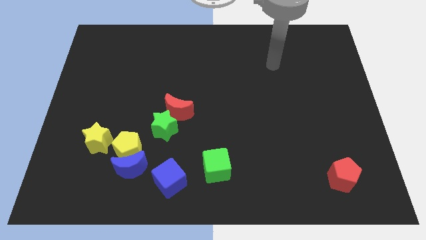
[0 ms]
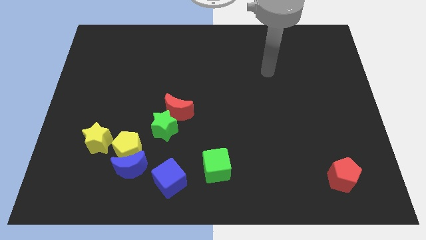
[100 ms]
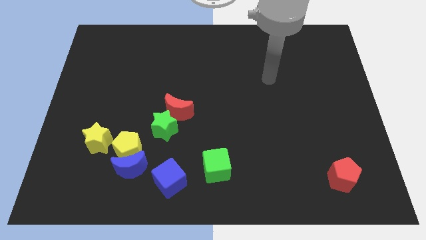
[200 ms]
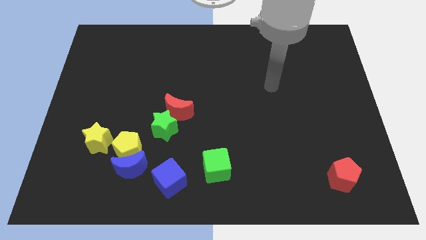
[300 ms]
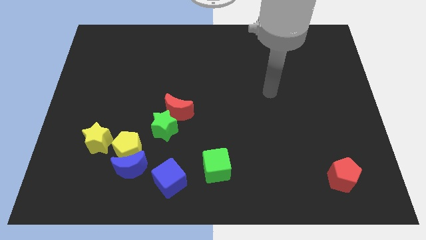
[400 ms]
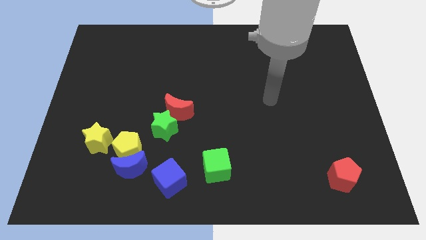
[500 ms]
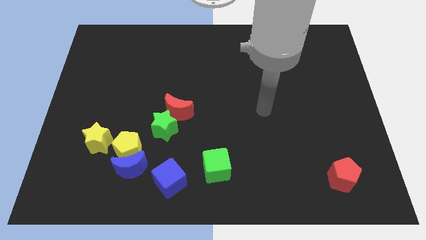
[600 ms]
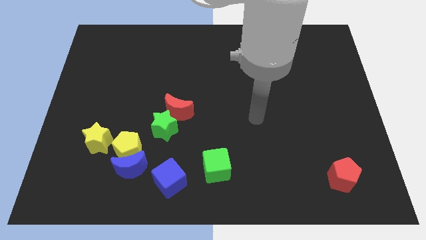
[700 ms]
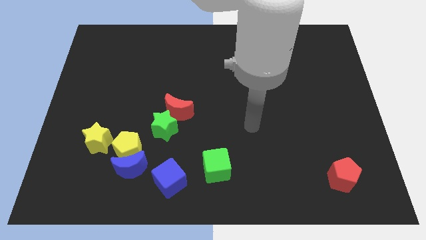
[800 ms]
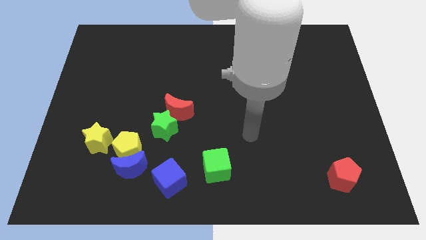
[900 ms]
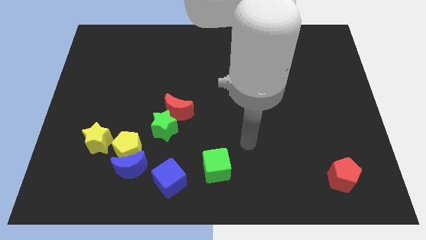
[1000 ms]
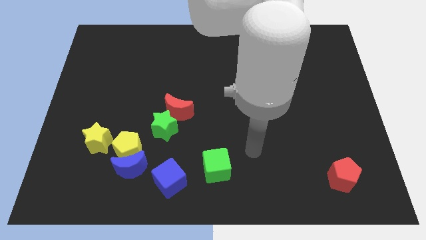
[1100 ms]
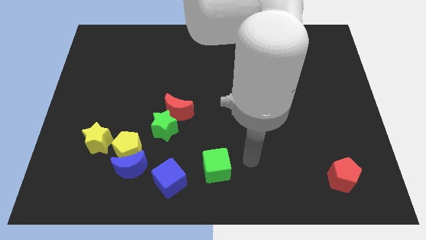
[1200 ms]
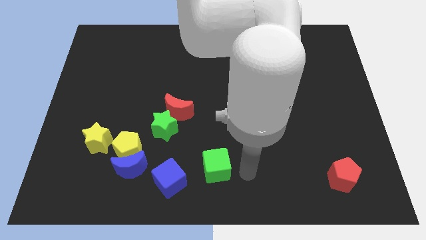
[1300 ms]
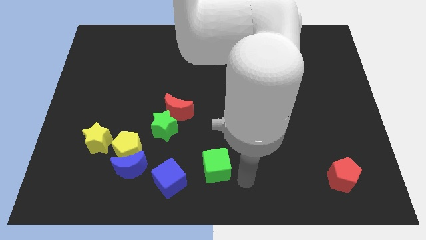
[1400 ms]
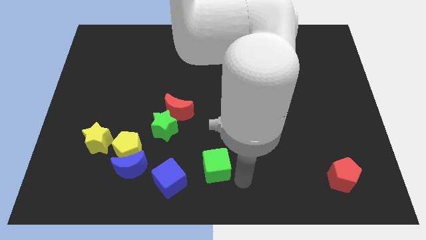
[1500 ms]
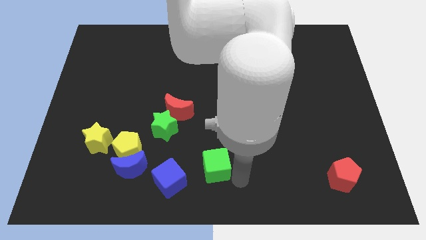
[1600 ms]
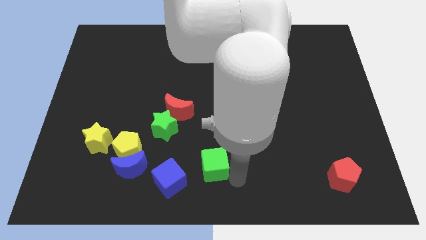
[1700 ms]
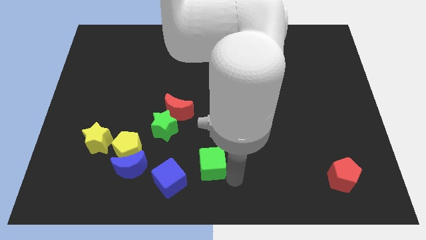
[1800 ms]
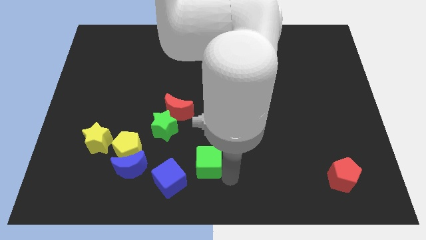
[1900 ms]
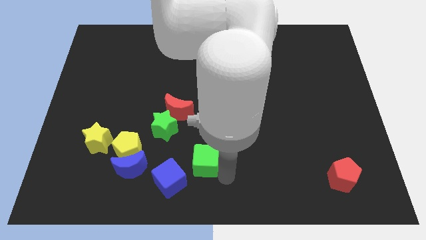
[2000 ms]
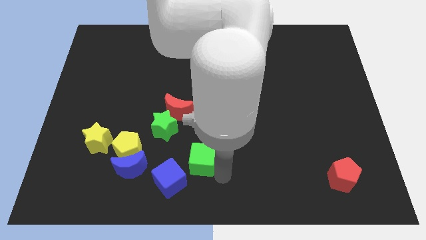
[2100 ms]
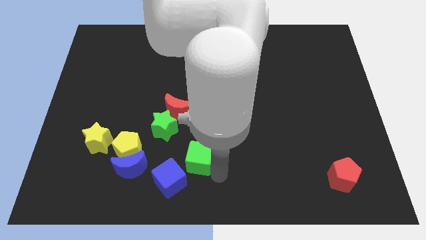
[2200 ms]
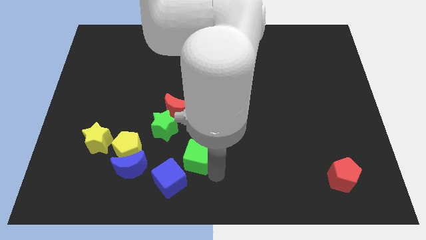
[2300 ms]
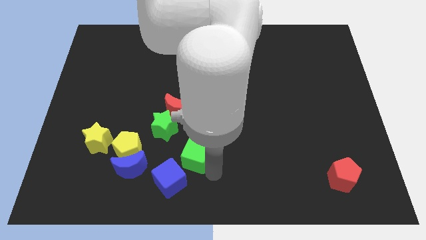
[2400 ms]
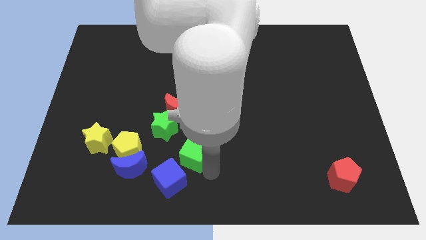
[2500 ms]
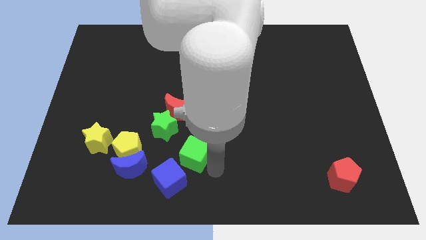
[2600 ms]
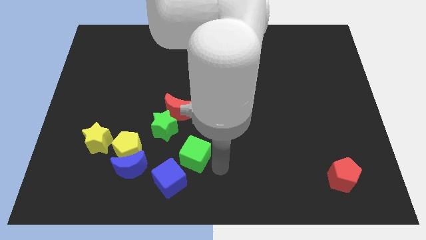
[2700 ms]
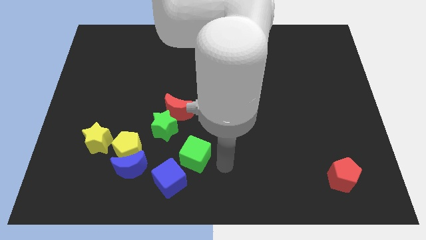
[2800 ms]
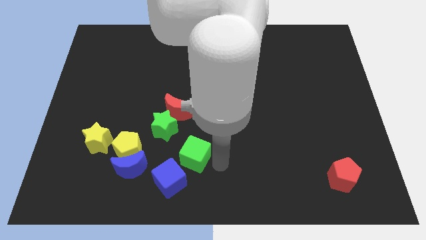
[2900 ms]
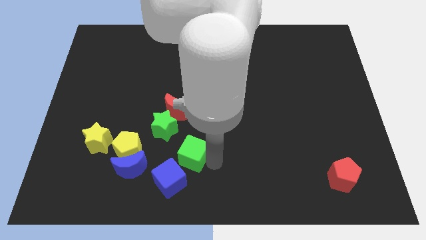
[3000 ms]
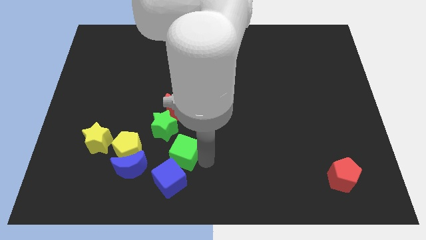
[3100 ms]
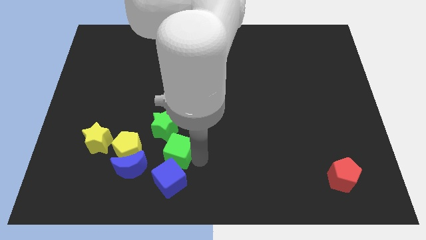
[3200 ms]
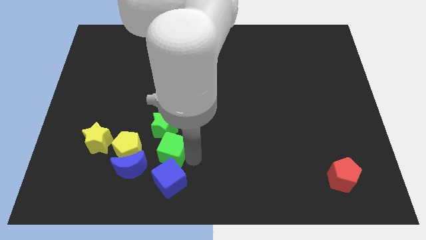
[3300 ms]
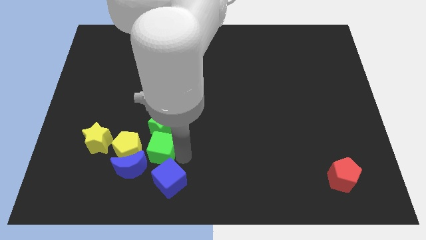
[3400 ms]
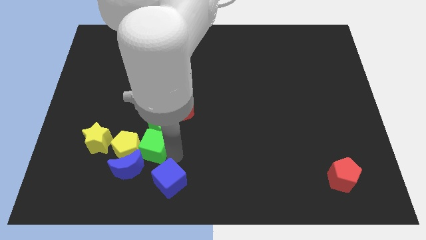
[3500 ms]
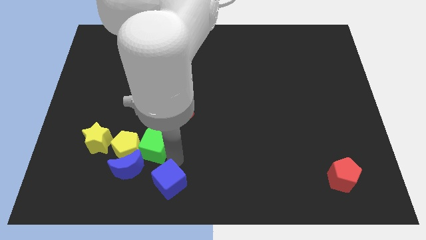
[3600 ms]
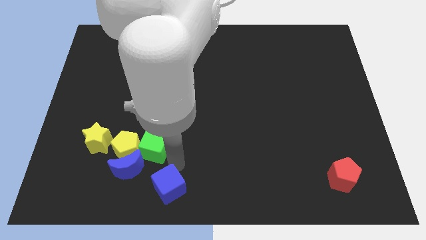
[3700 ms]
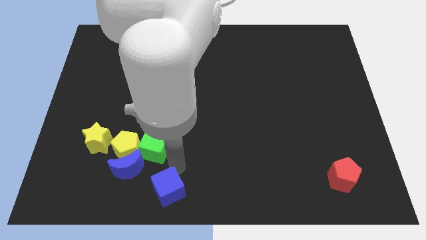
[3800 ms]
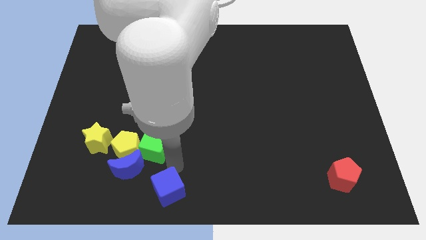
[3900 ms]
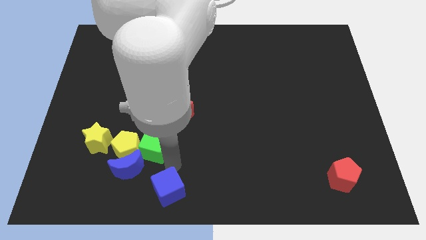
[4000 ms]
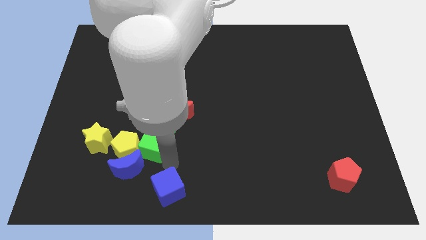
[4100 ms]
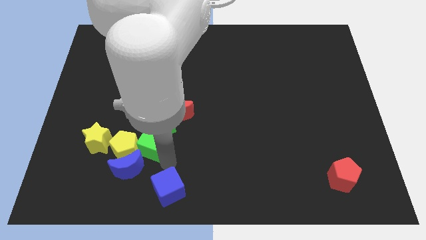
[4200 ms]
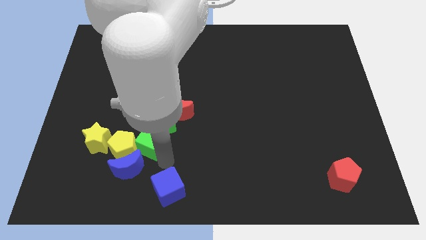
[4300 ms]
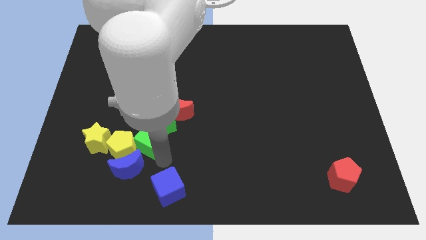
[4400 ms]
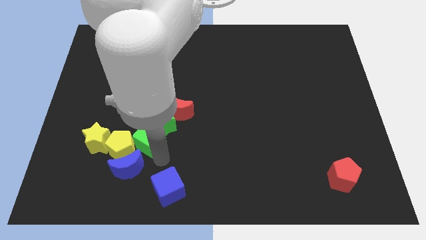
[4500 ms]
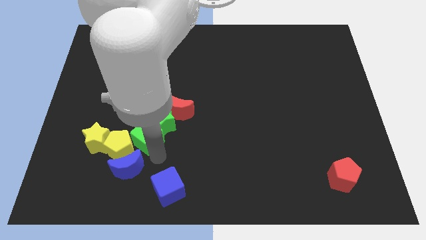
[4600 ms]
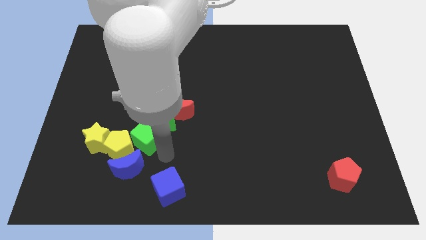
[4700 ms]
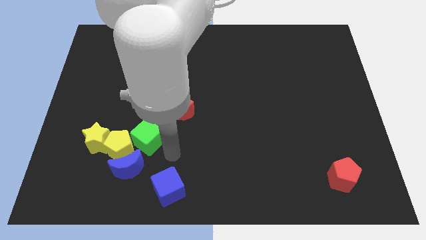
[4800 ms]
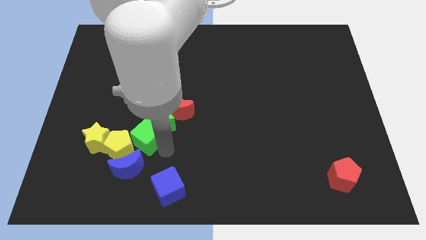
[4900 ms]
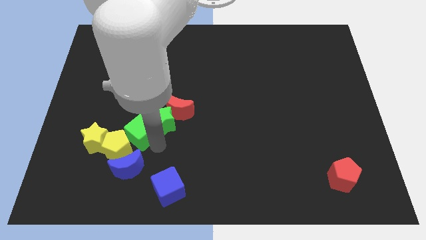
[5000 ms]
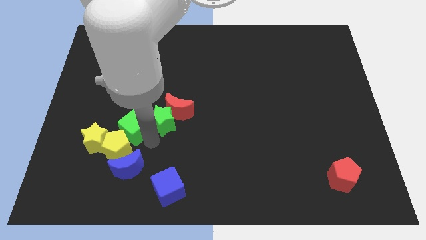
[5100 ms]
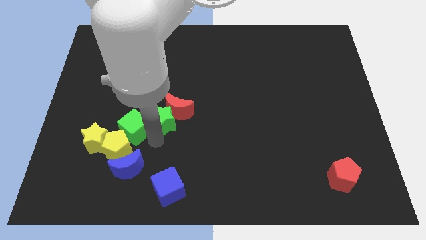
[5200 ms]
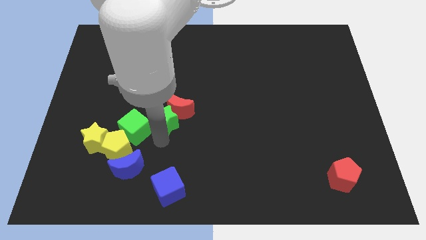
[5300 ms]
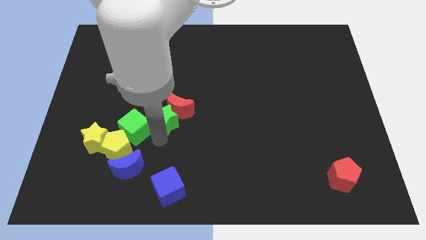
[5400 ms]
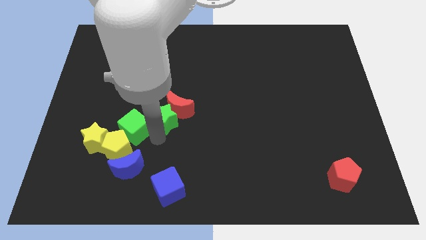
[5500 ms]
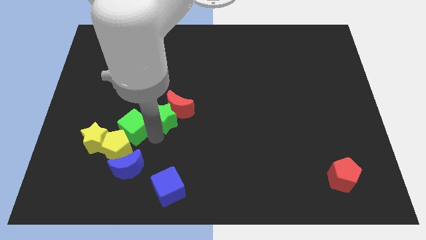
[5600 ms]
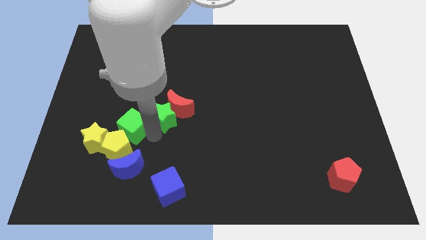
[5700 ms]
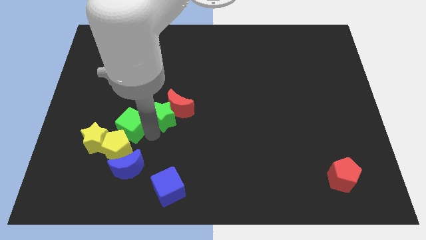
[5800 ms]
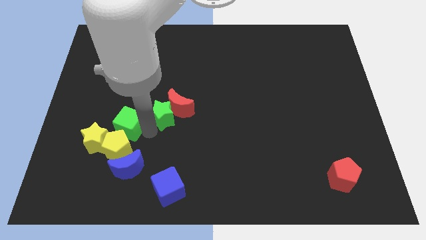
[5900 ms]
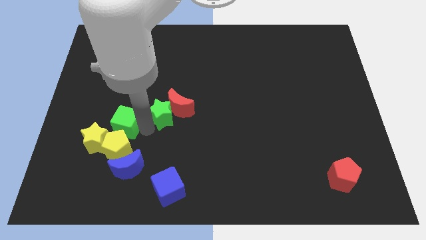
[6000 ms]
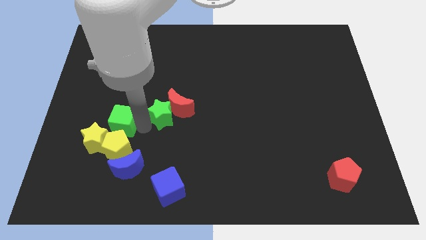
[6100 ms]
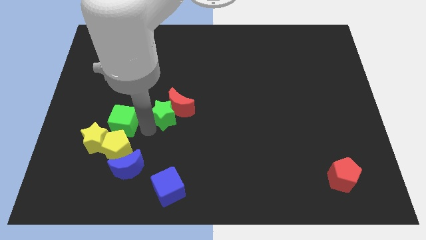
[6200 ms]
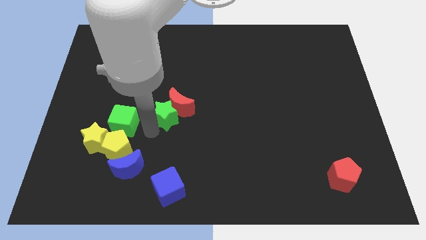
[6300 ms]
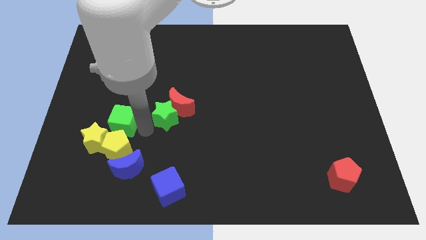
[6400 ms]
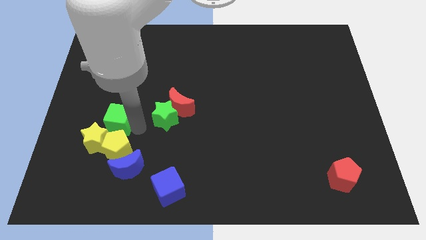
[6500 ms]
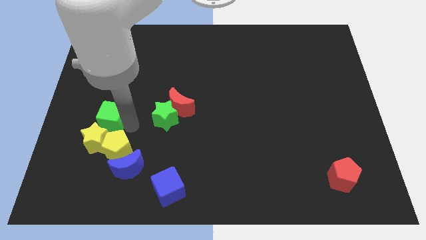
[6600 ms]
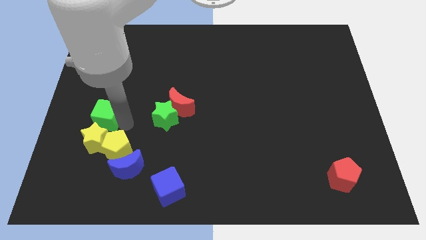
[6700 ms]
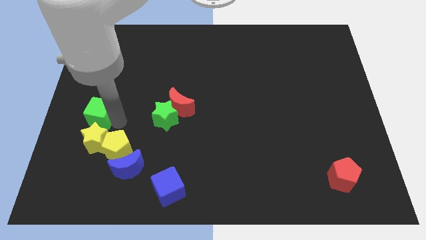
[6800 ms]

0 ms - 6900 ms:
push the green cube to the left side

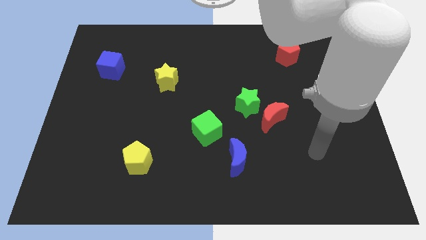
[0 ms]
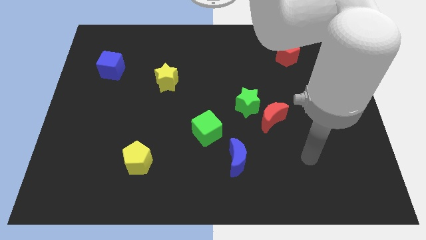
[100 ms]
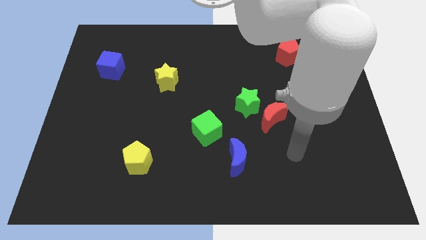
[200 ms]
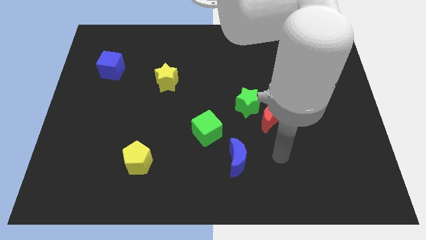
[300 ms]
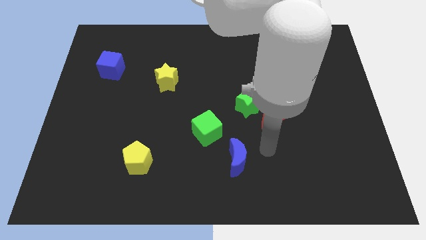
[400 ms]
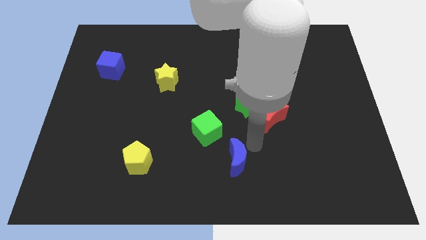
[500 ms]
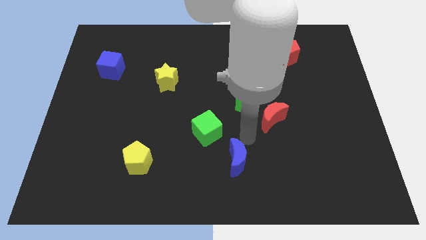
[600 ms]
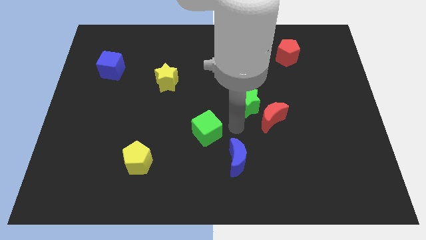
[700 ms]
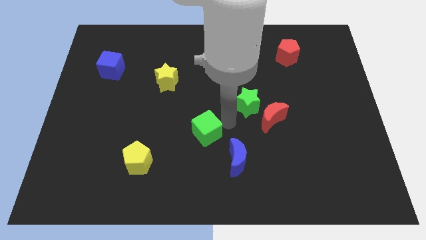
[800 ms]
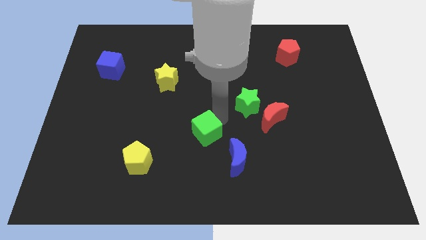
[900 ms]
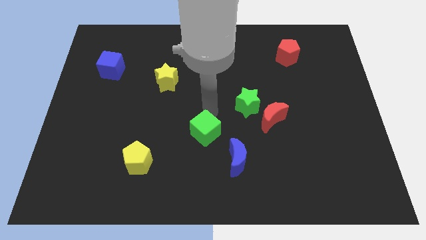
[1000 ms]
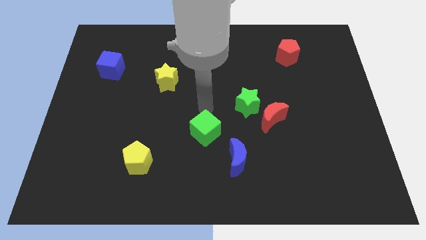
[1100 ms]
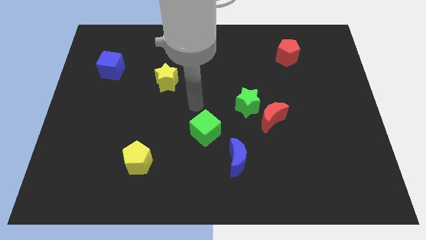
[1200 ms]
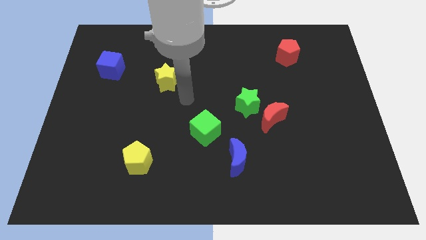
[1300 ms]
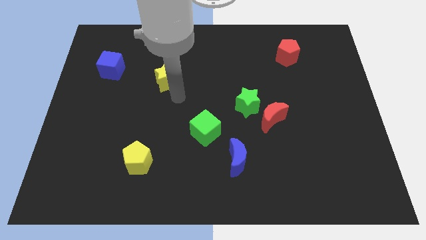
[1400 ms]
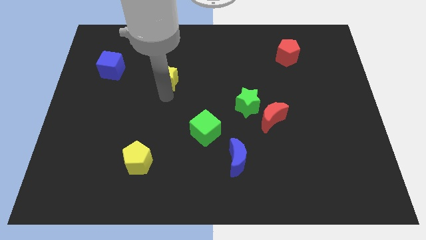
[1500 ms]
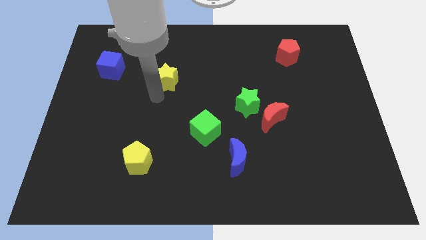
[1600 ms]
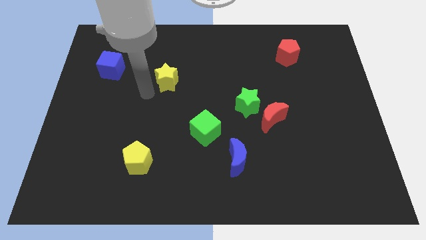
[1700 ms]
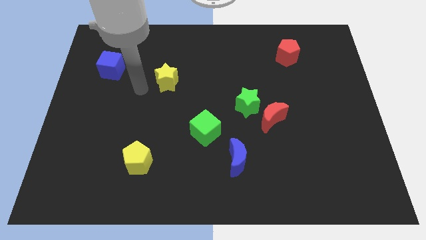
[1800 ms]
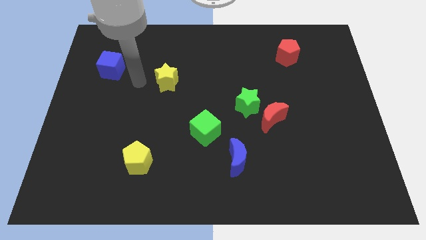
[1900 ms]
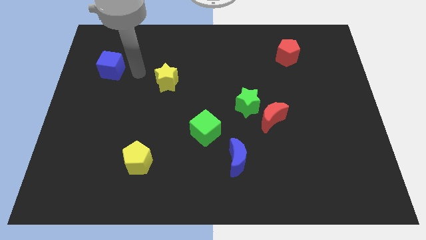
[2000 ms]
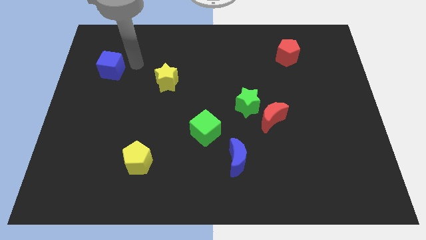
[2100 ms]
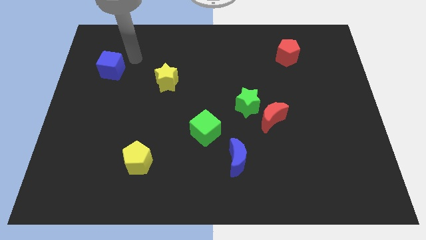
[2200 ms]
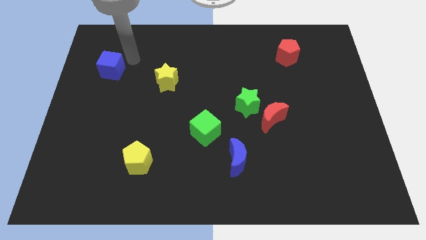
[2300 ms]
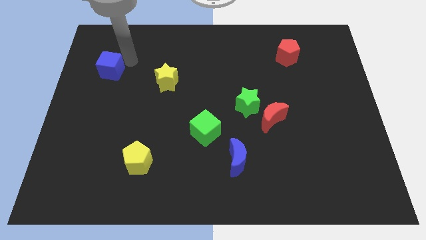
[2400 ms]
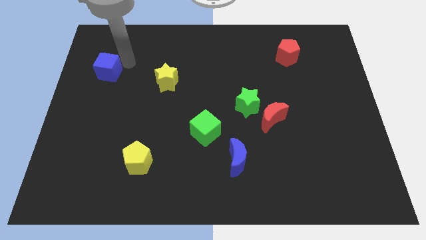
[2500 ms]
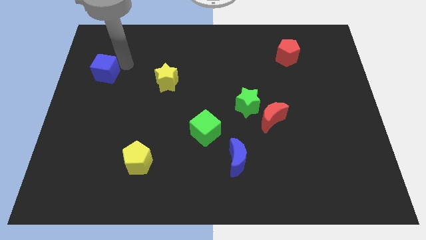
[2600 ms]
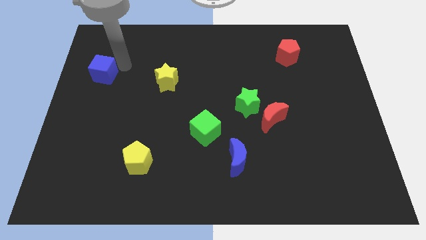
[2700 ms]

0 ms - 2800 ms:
push the blue cube to the left side of the board
